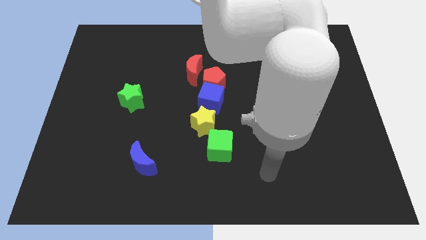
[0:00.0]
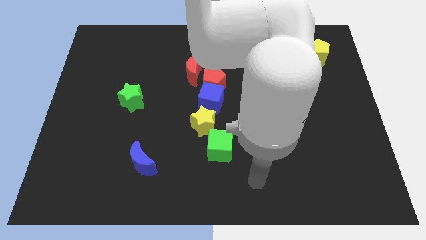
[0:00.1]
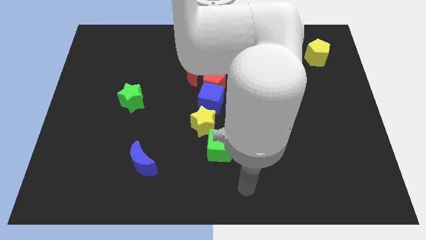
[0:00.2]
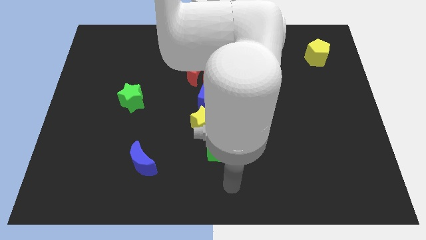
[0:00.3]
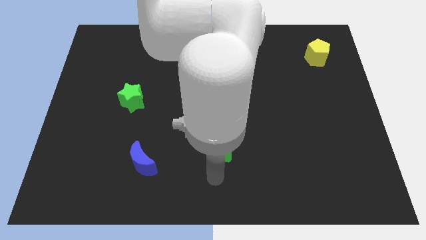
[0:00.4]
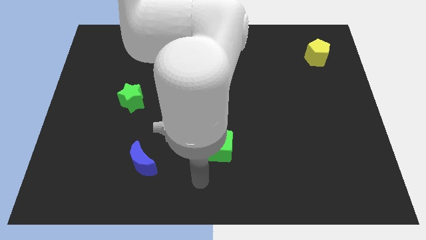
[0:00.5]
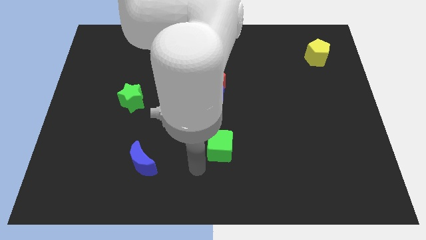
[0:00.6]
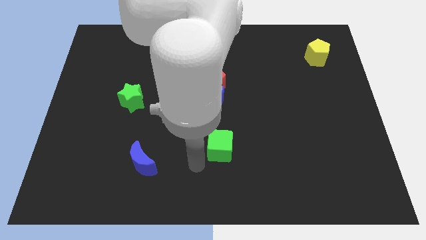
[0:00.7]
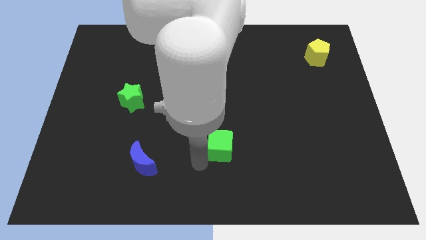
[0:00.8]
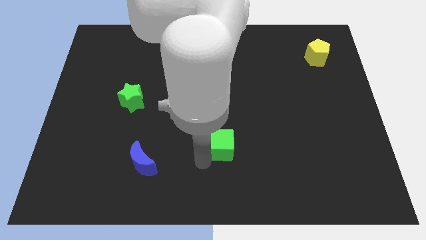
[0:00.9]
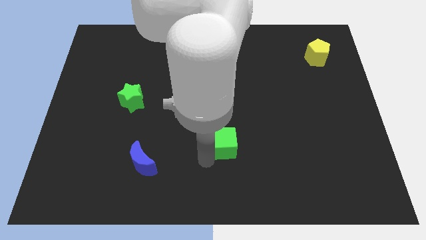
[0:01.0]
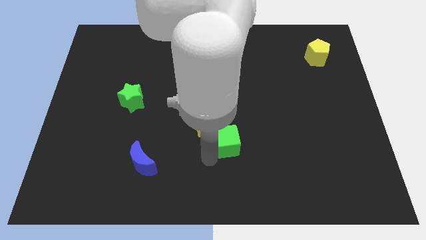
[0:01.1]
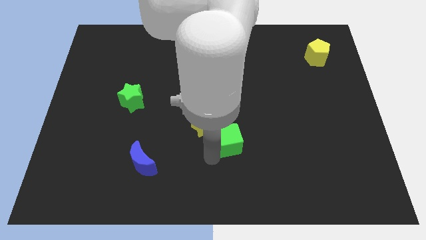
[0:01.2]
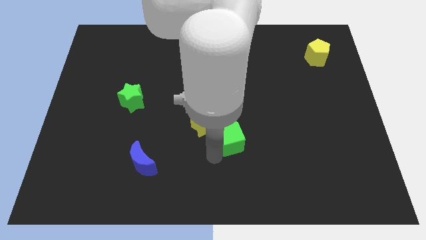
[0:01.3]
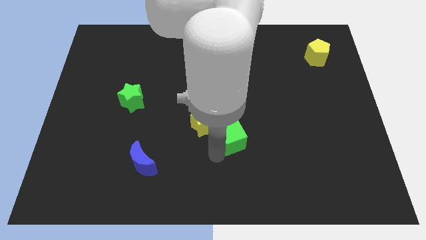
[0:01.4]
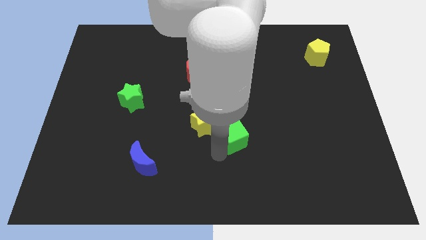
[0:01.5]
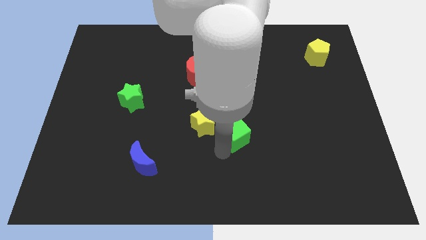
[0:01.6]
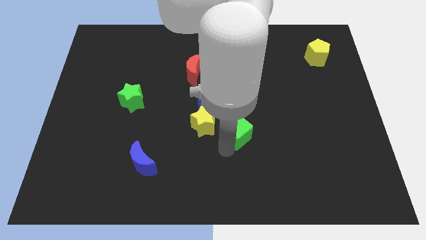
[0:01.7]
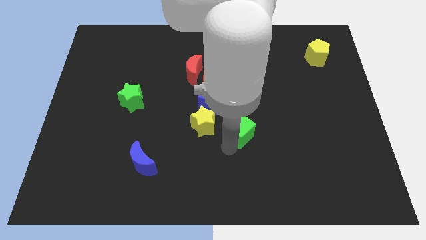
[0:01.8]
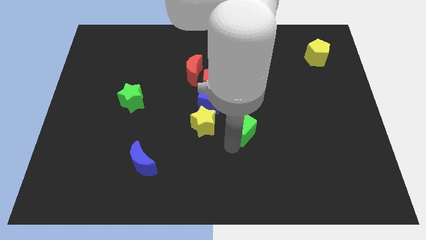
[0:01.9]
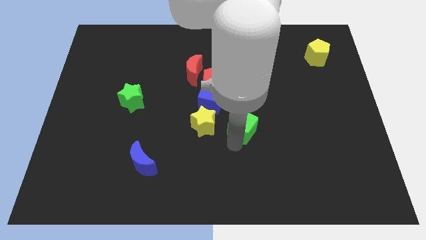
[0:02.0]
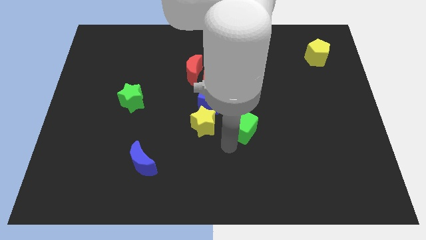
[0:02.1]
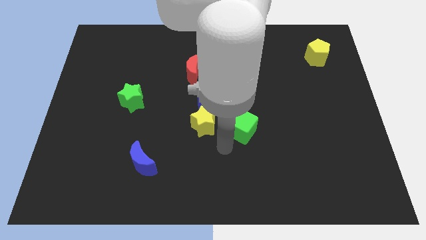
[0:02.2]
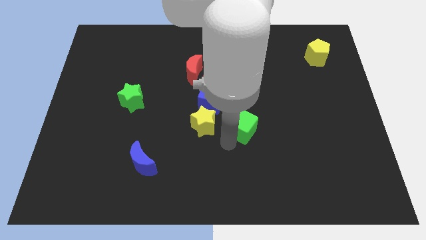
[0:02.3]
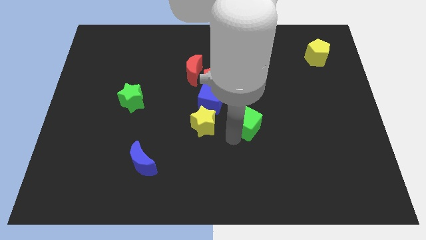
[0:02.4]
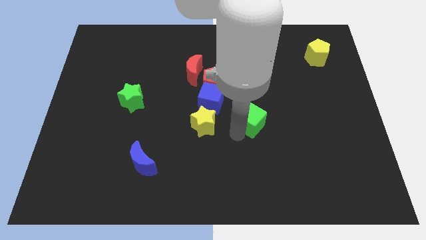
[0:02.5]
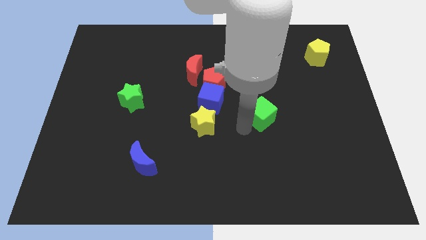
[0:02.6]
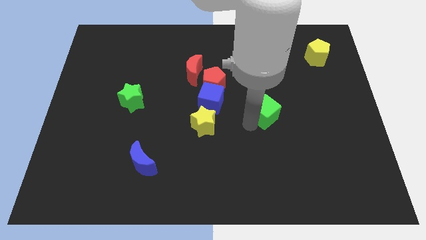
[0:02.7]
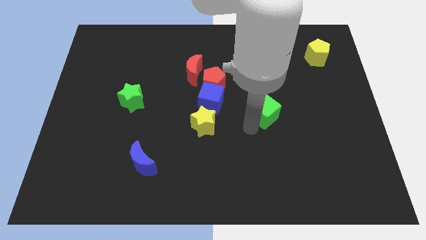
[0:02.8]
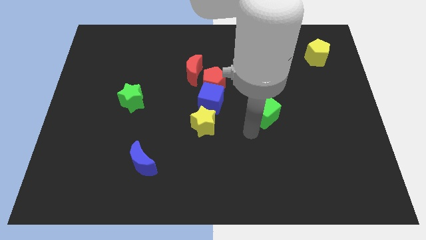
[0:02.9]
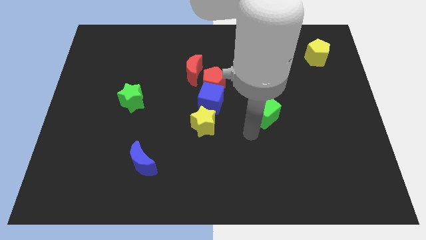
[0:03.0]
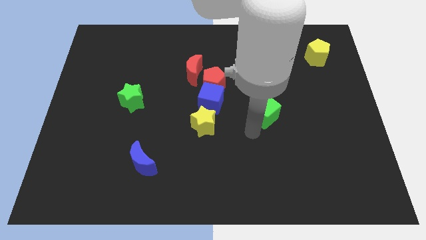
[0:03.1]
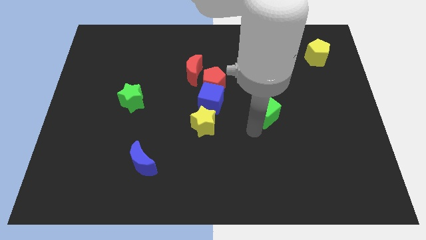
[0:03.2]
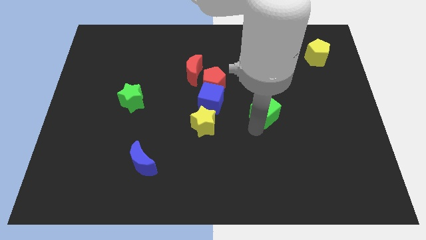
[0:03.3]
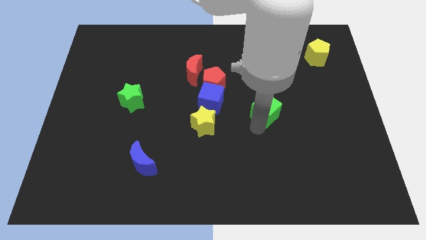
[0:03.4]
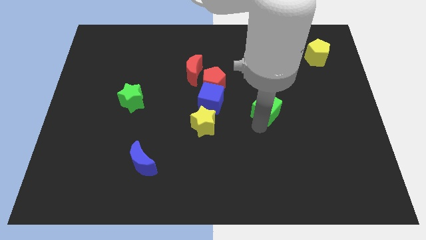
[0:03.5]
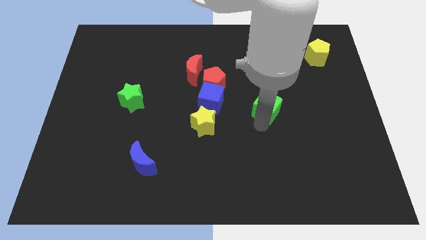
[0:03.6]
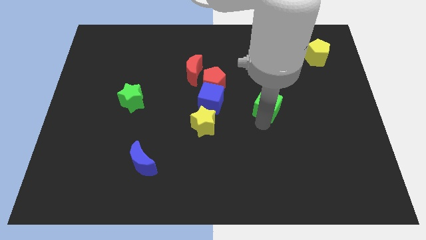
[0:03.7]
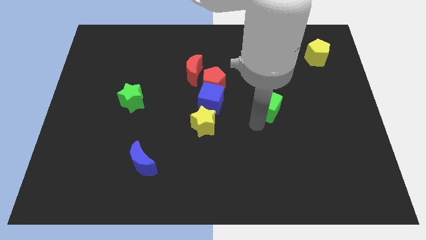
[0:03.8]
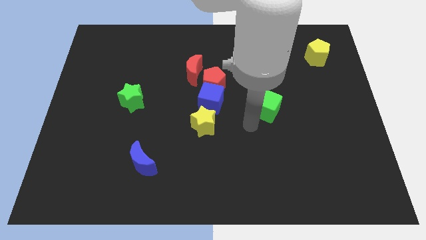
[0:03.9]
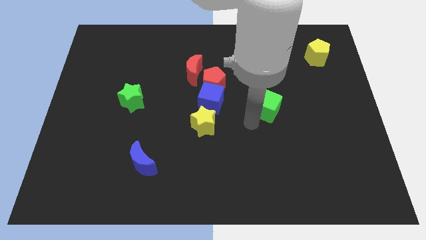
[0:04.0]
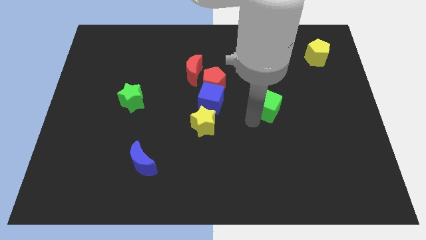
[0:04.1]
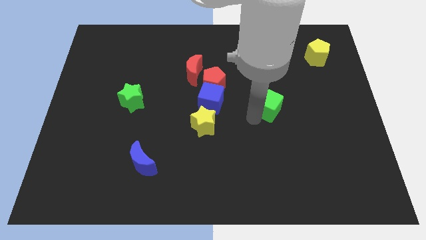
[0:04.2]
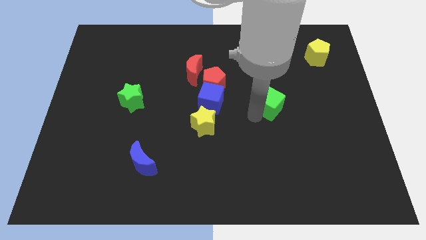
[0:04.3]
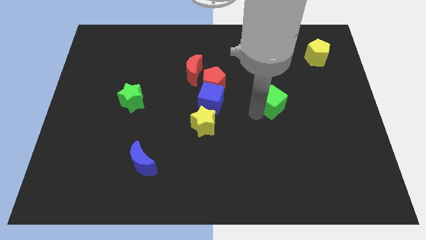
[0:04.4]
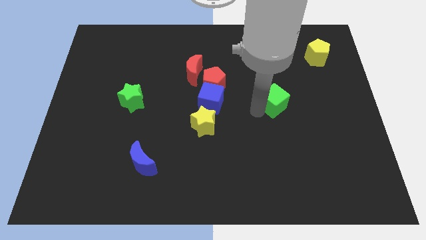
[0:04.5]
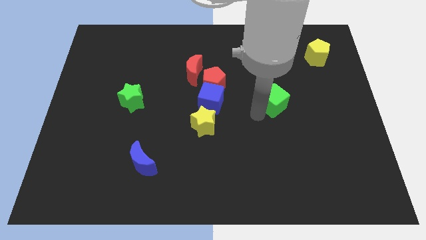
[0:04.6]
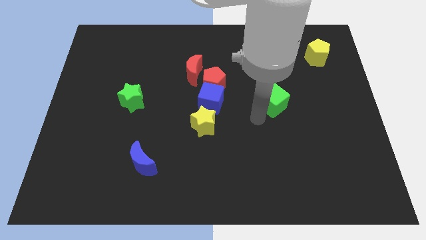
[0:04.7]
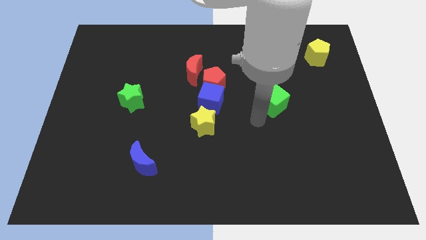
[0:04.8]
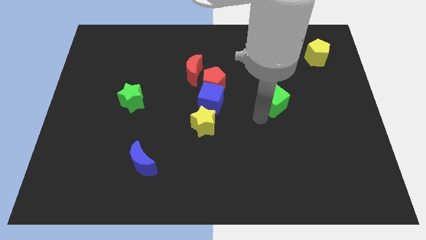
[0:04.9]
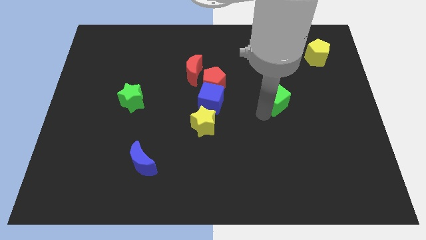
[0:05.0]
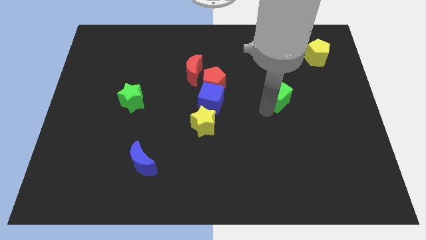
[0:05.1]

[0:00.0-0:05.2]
push the green cube upwards and then right

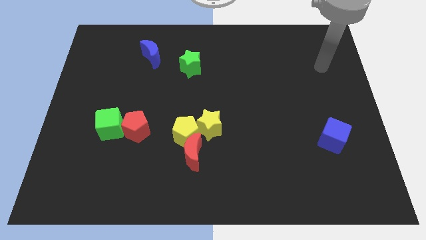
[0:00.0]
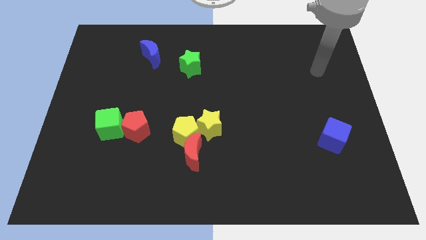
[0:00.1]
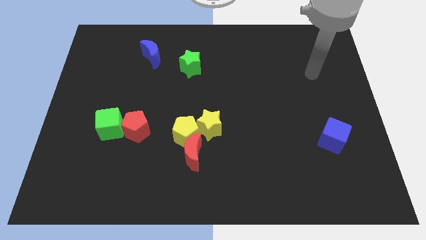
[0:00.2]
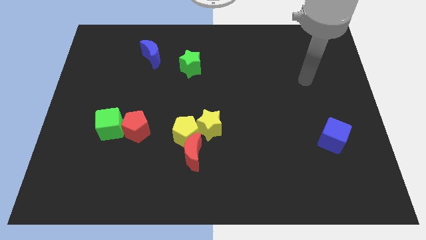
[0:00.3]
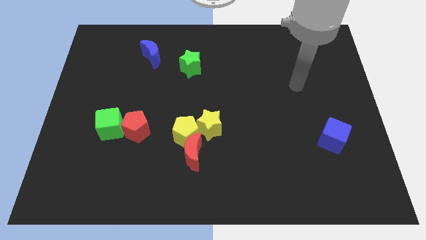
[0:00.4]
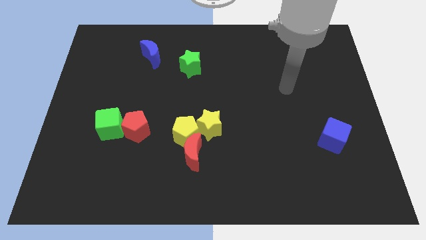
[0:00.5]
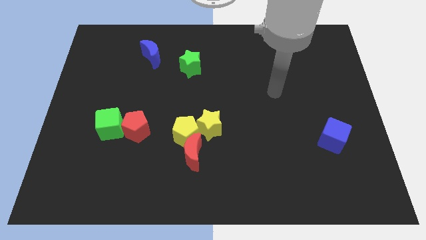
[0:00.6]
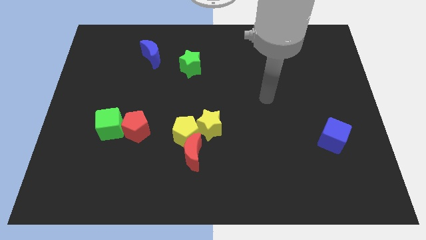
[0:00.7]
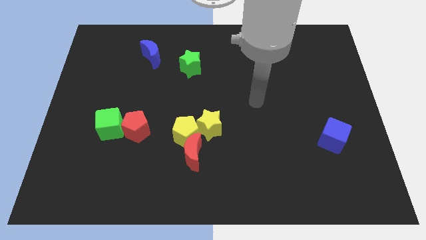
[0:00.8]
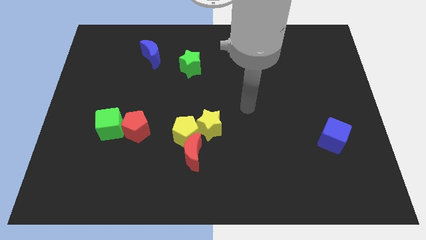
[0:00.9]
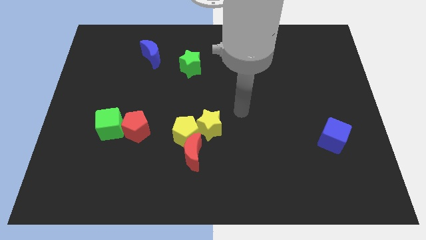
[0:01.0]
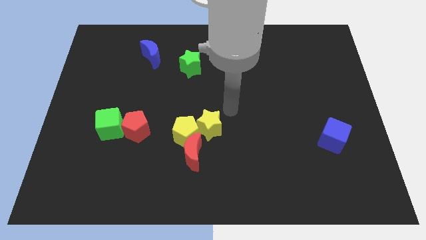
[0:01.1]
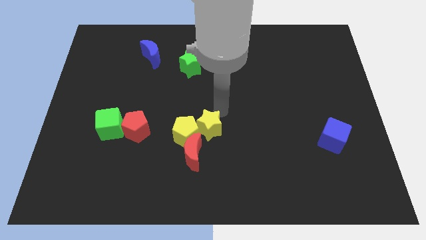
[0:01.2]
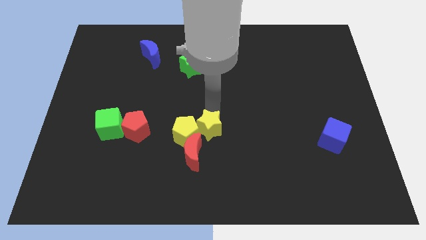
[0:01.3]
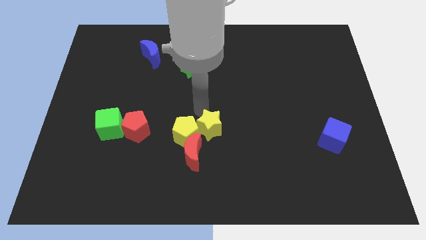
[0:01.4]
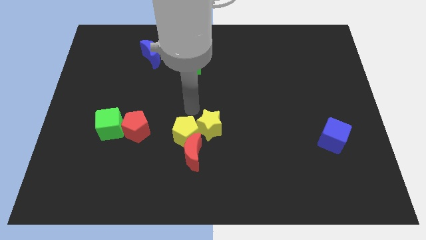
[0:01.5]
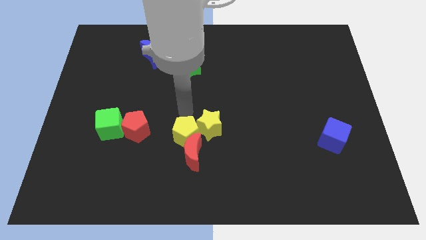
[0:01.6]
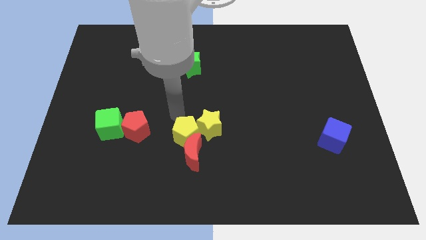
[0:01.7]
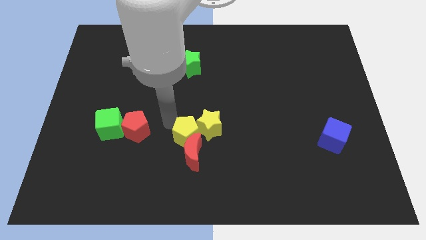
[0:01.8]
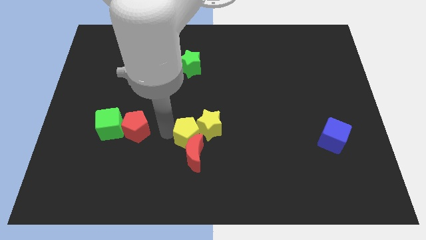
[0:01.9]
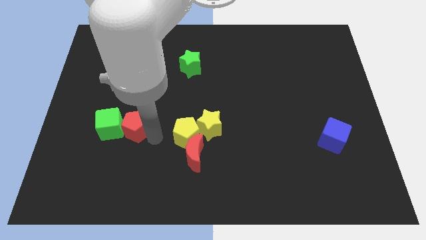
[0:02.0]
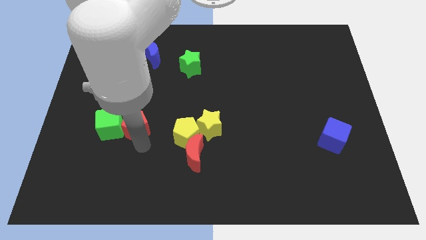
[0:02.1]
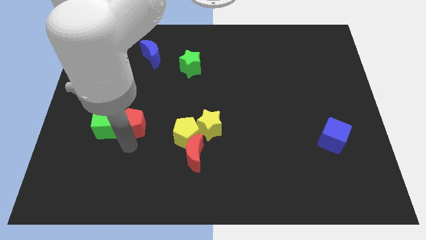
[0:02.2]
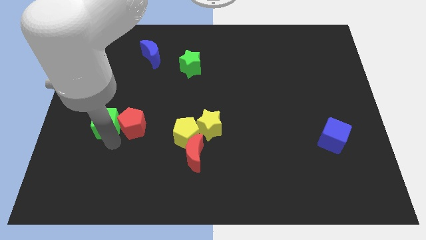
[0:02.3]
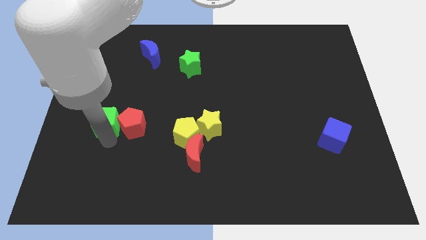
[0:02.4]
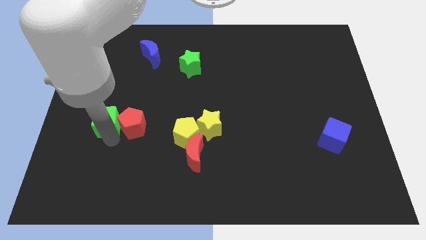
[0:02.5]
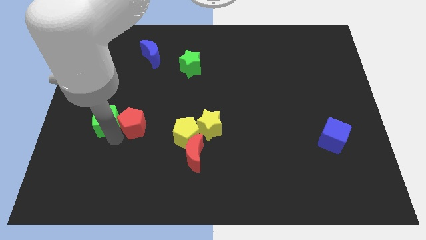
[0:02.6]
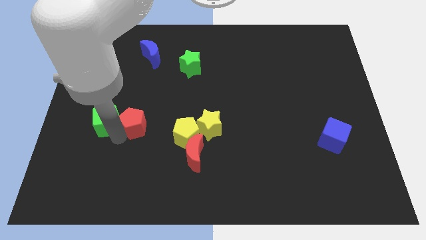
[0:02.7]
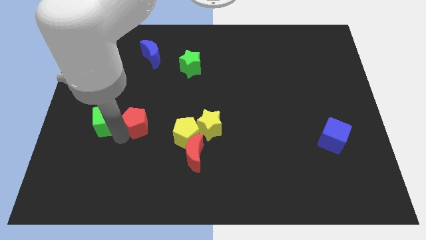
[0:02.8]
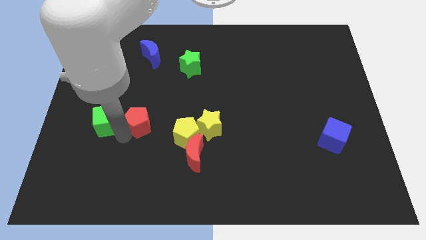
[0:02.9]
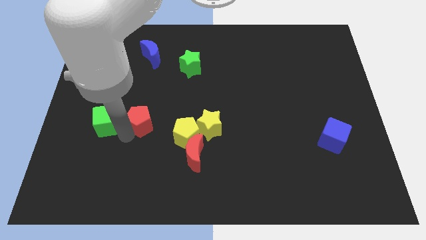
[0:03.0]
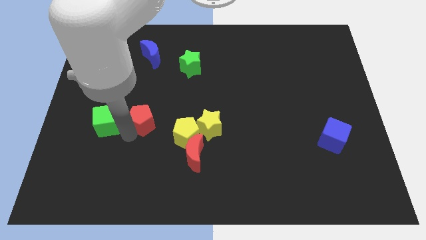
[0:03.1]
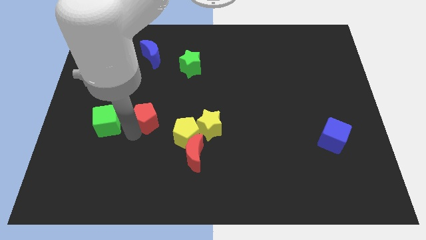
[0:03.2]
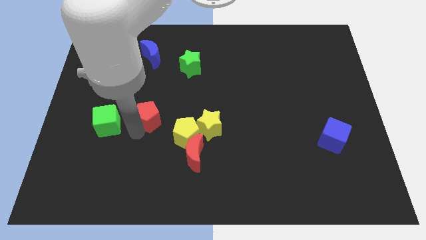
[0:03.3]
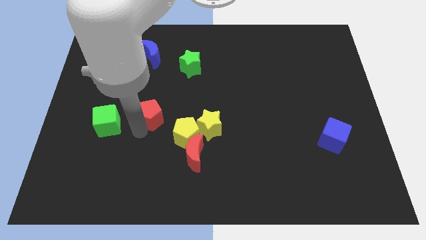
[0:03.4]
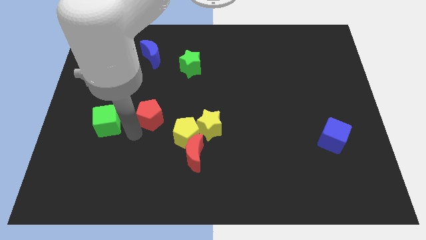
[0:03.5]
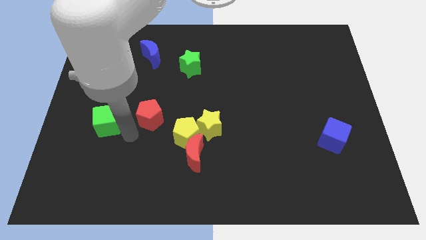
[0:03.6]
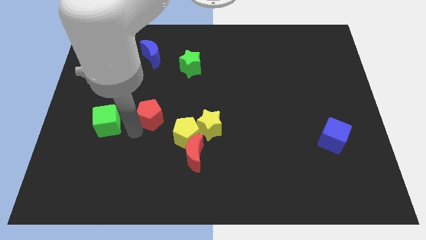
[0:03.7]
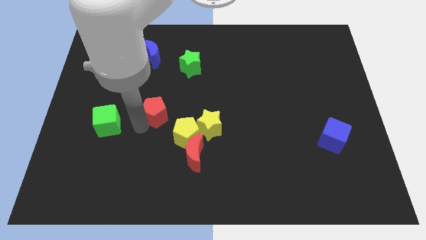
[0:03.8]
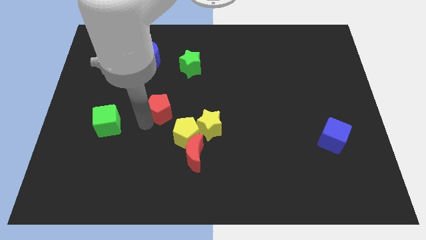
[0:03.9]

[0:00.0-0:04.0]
slide the red pentagon a bit diagonally up and right
